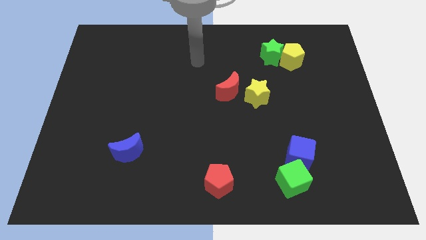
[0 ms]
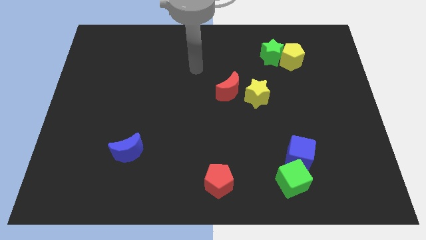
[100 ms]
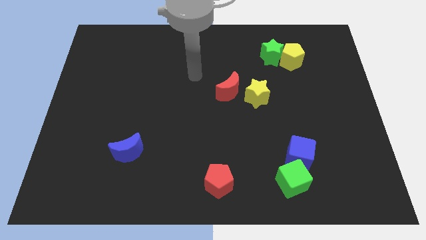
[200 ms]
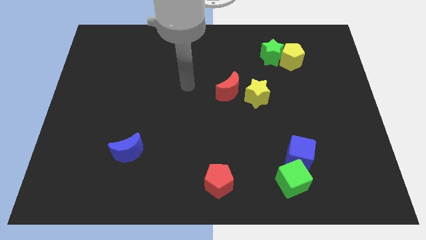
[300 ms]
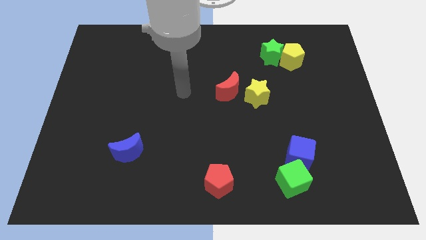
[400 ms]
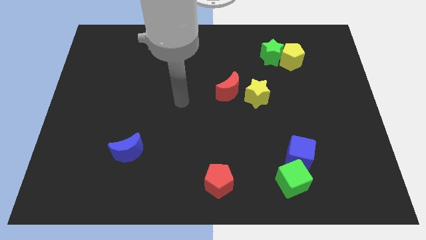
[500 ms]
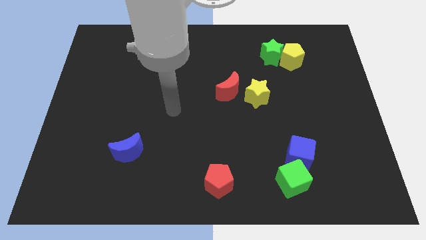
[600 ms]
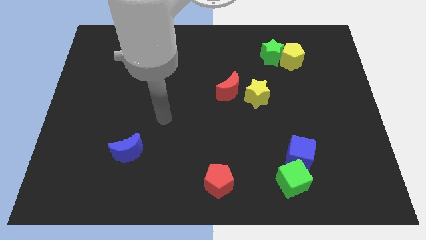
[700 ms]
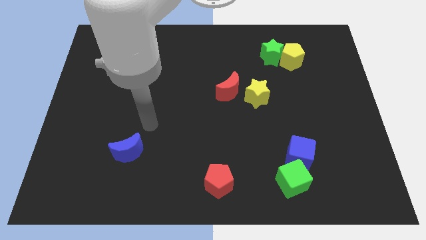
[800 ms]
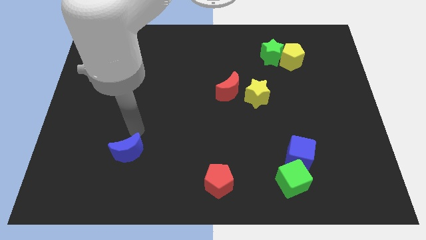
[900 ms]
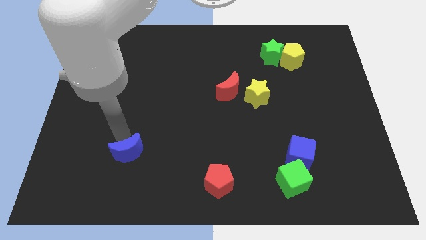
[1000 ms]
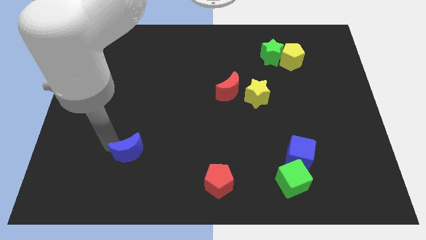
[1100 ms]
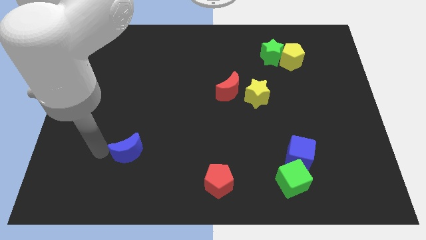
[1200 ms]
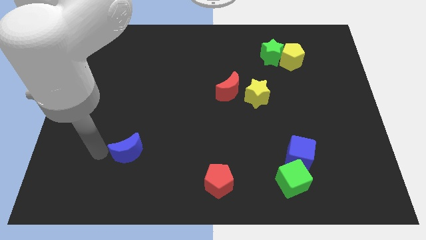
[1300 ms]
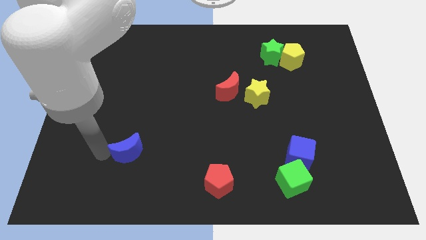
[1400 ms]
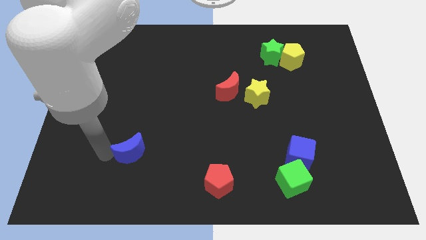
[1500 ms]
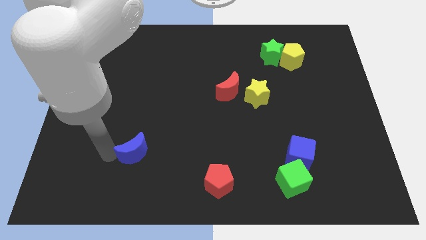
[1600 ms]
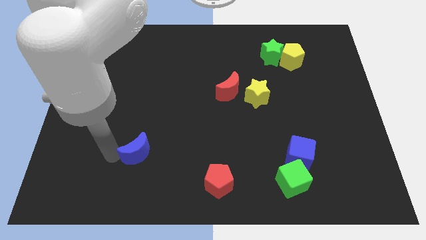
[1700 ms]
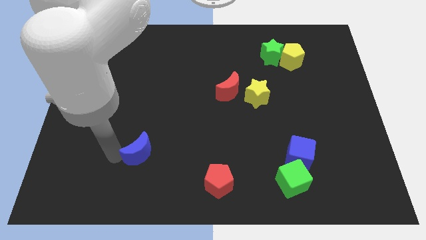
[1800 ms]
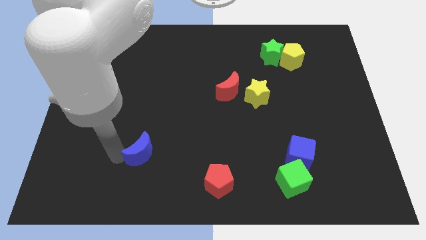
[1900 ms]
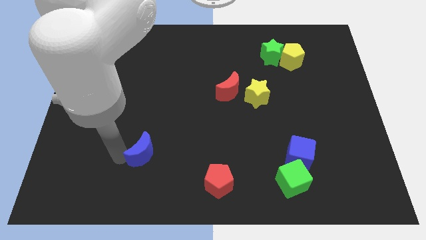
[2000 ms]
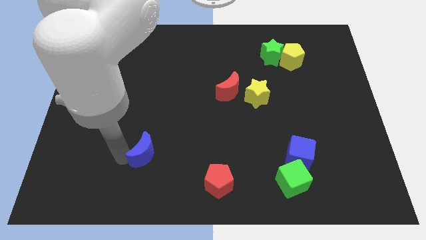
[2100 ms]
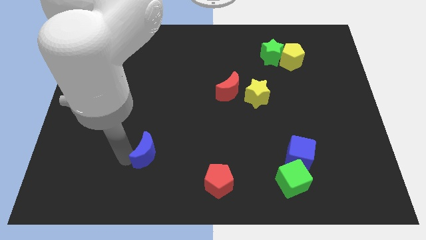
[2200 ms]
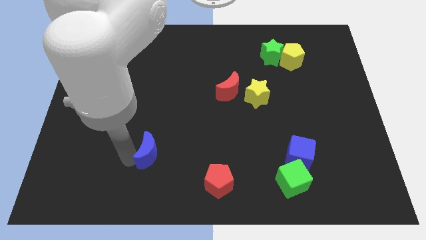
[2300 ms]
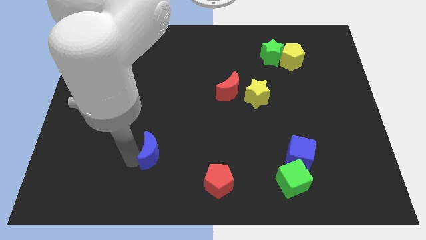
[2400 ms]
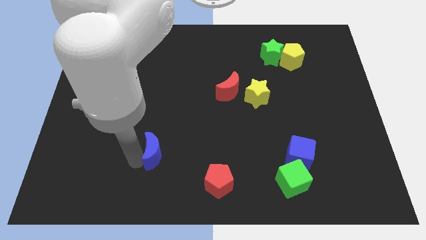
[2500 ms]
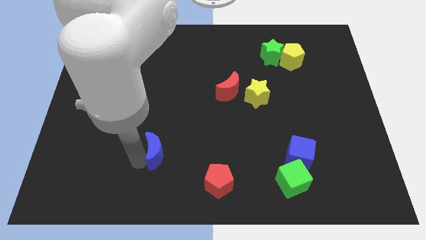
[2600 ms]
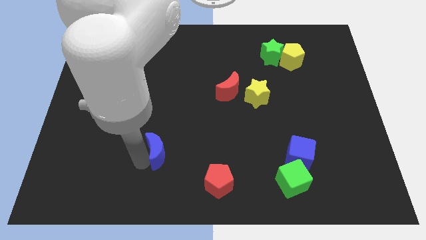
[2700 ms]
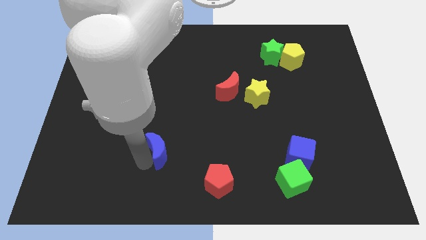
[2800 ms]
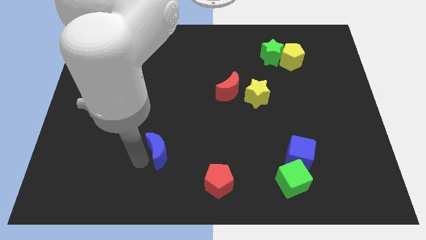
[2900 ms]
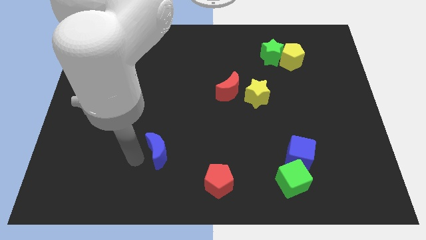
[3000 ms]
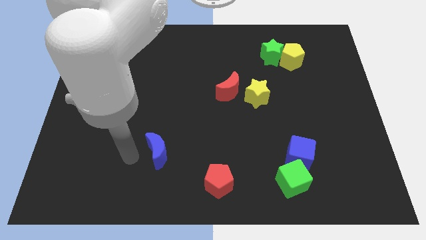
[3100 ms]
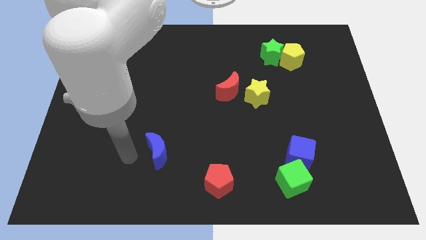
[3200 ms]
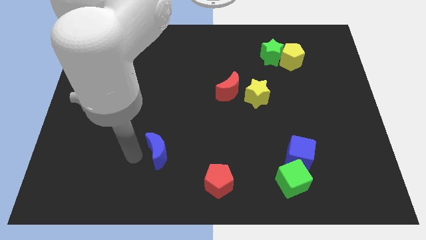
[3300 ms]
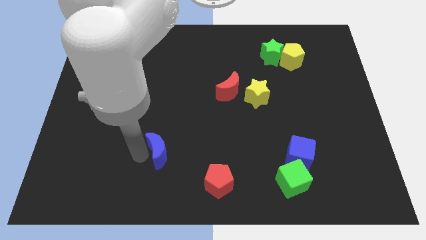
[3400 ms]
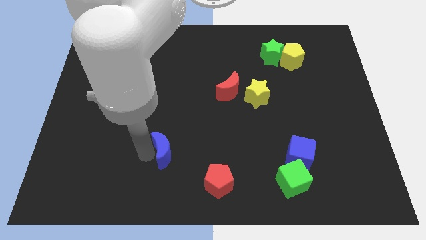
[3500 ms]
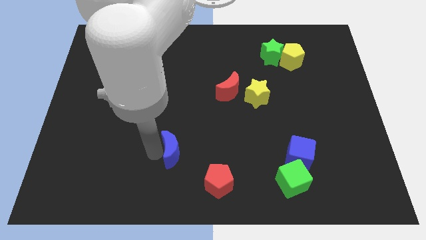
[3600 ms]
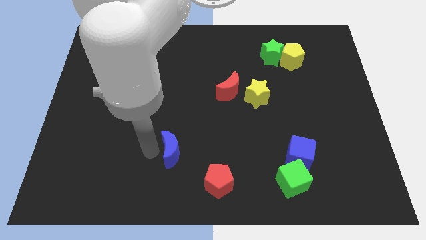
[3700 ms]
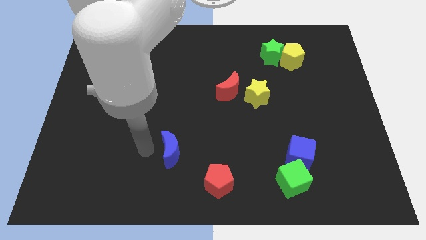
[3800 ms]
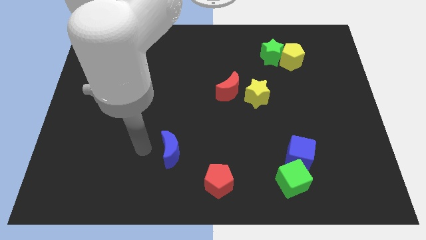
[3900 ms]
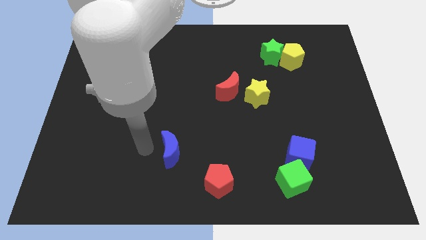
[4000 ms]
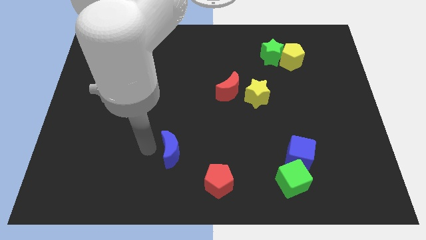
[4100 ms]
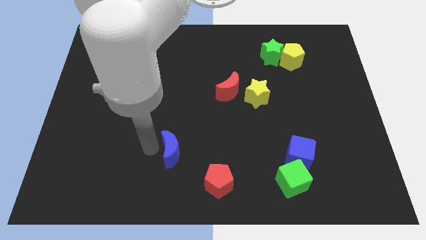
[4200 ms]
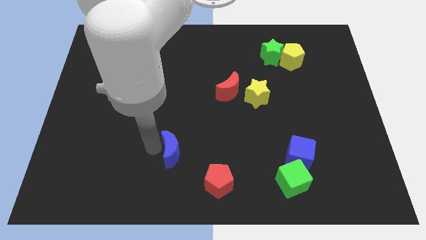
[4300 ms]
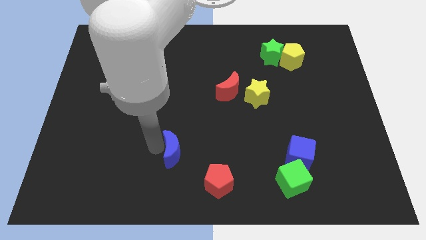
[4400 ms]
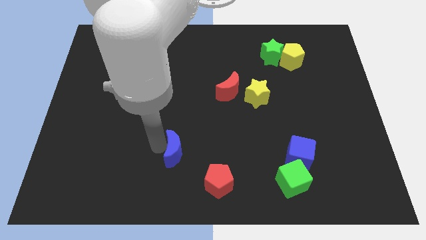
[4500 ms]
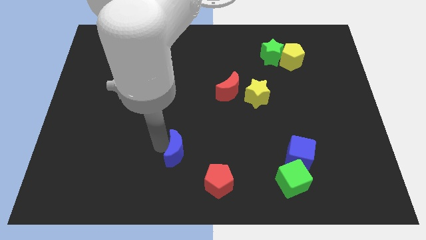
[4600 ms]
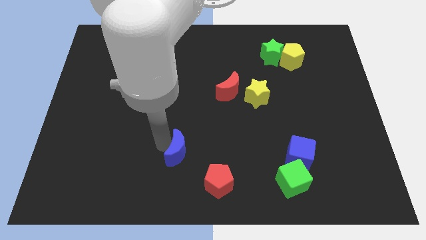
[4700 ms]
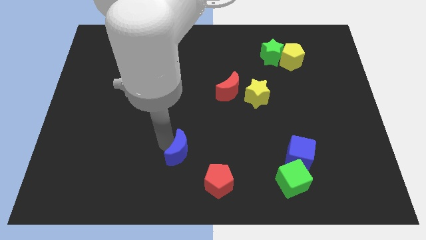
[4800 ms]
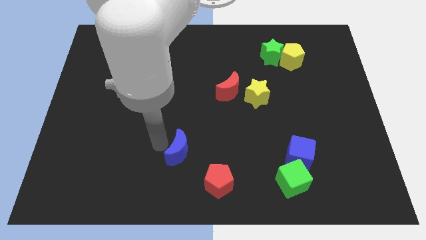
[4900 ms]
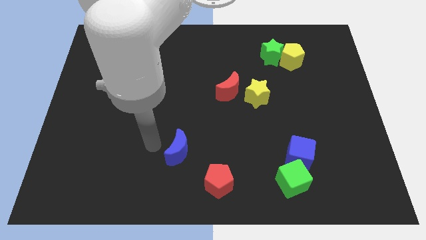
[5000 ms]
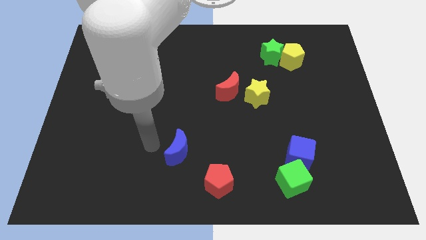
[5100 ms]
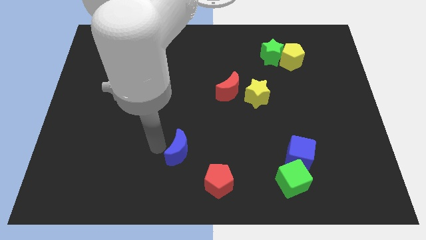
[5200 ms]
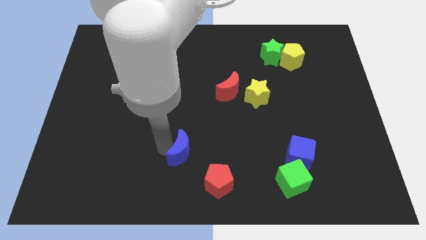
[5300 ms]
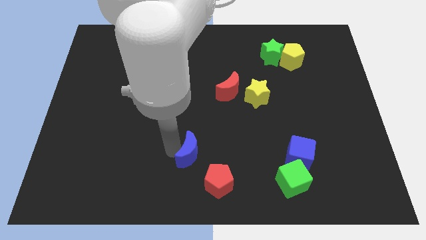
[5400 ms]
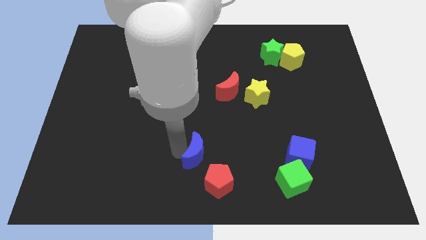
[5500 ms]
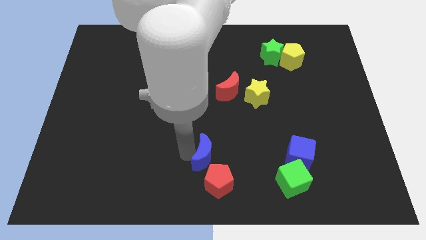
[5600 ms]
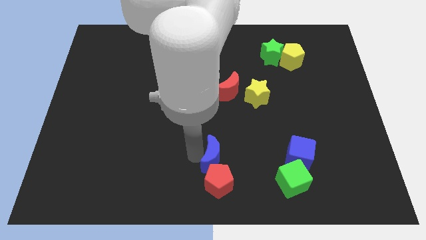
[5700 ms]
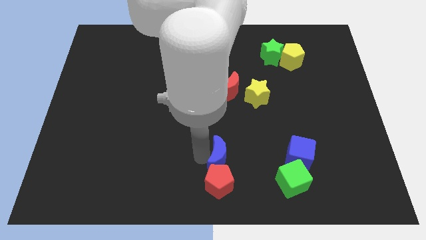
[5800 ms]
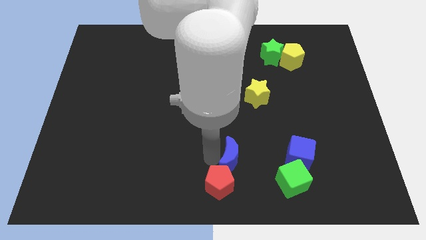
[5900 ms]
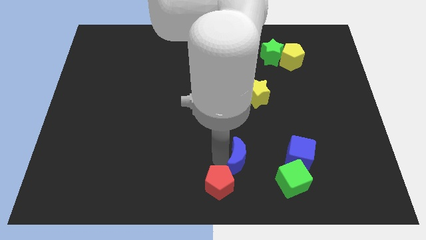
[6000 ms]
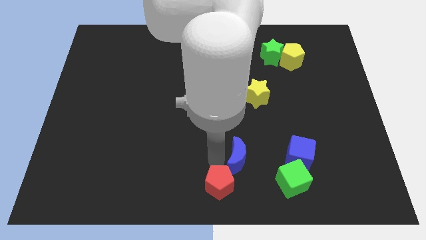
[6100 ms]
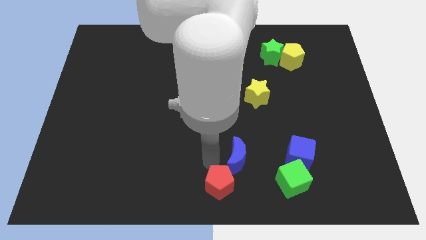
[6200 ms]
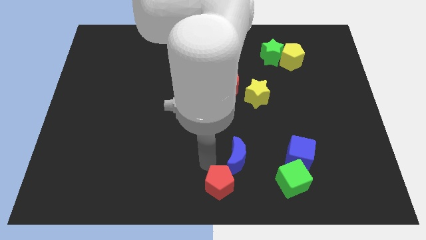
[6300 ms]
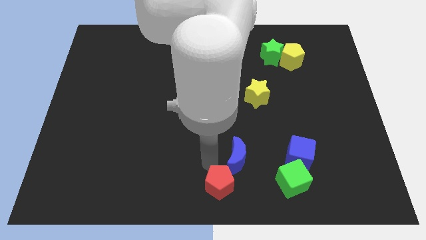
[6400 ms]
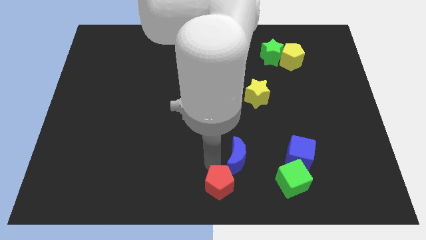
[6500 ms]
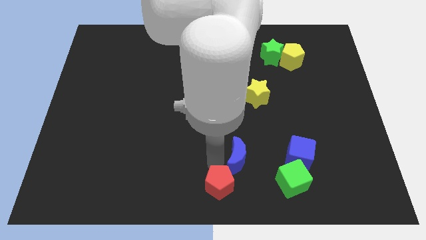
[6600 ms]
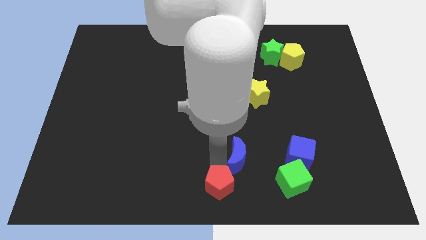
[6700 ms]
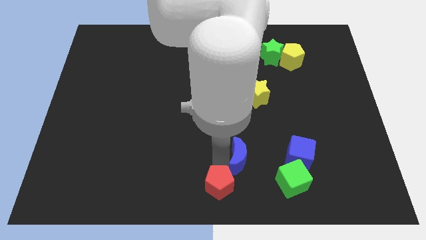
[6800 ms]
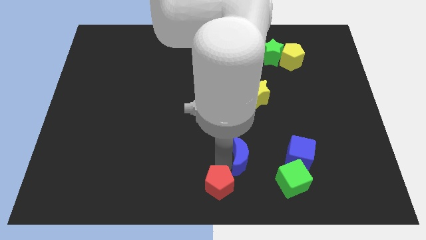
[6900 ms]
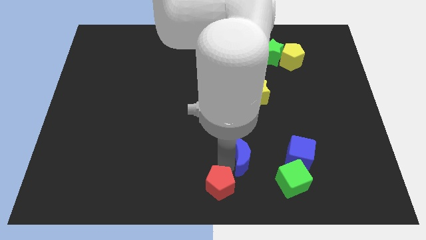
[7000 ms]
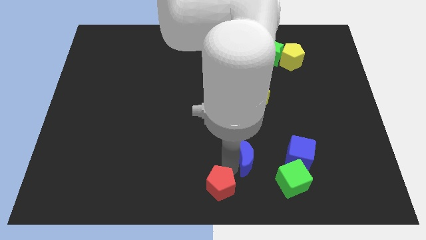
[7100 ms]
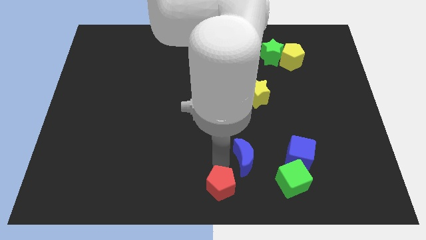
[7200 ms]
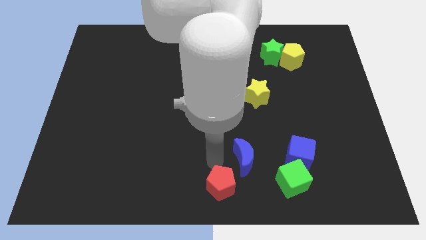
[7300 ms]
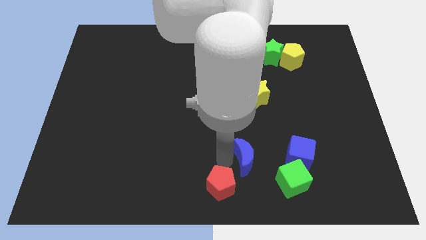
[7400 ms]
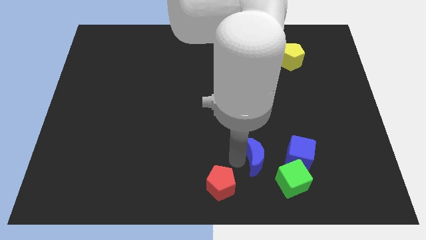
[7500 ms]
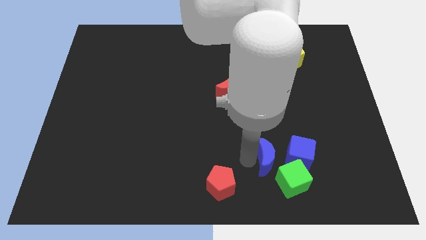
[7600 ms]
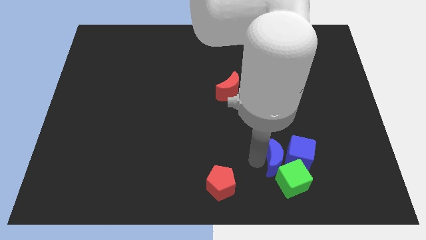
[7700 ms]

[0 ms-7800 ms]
put the blue moon to the blue cube
